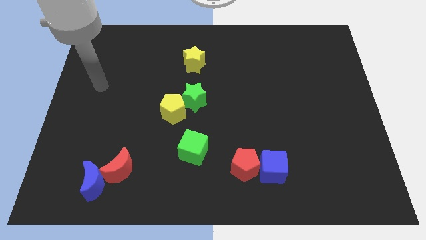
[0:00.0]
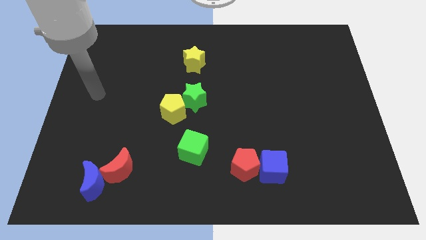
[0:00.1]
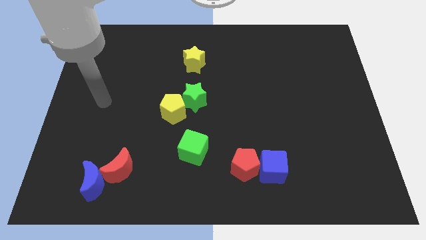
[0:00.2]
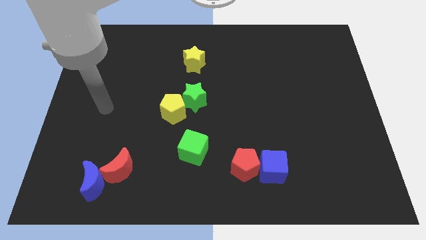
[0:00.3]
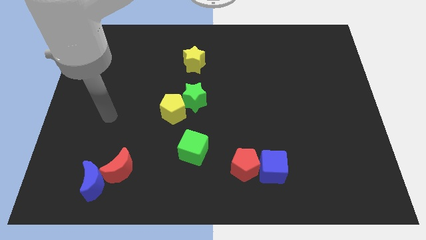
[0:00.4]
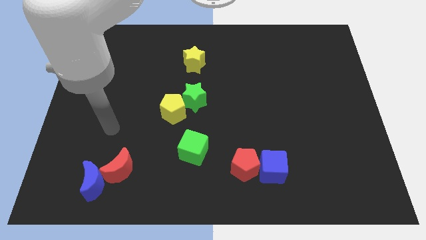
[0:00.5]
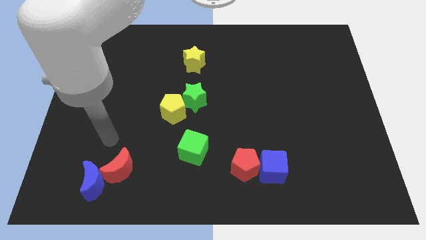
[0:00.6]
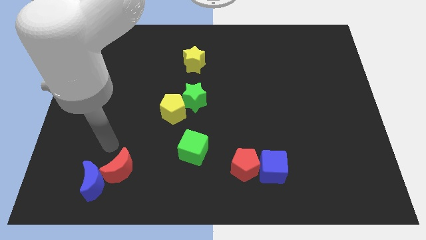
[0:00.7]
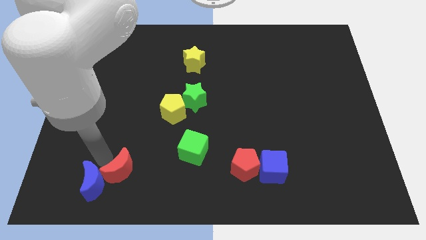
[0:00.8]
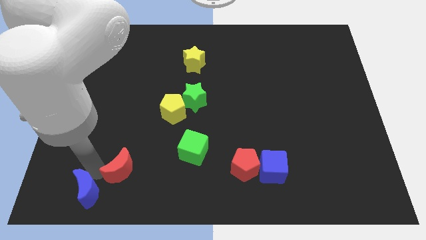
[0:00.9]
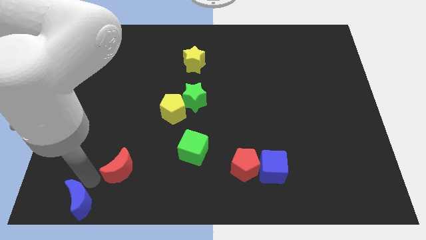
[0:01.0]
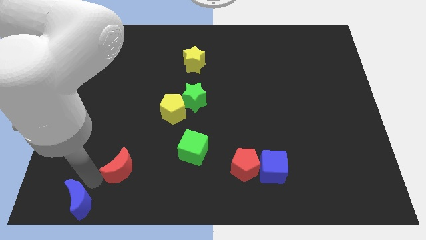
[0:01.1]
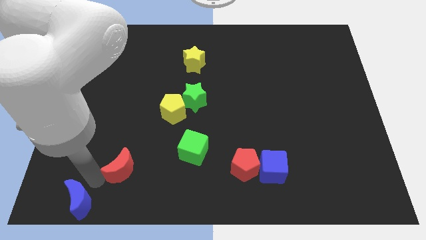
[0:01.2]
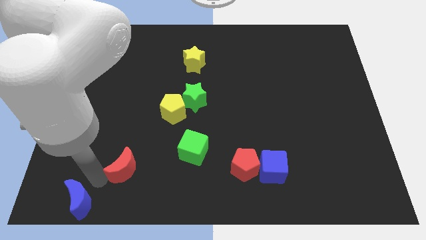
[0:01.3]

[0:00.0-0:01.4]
move the red moon away from the blue moon

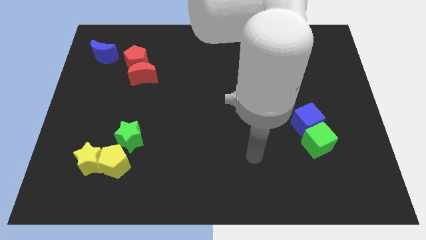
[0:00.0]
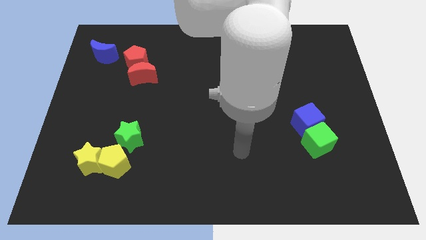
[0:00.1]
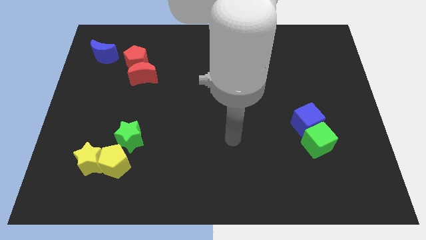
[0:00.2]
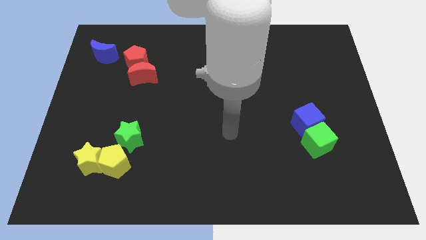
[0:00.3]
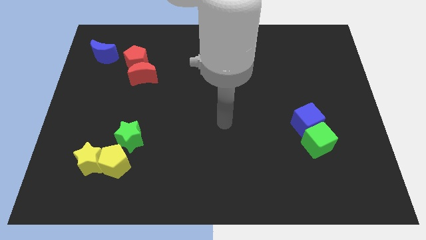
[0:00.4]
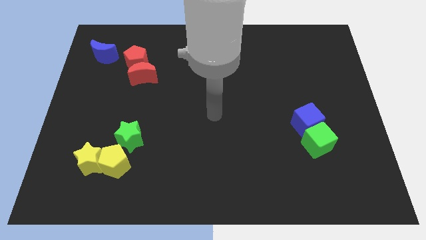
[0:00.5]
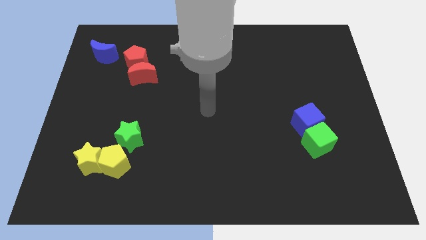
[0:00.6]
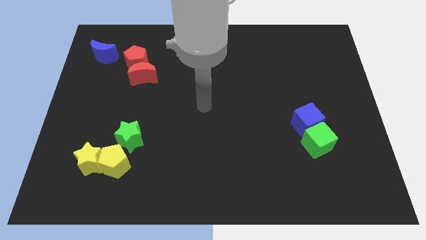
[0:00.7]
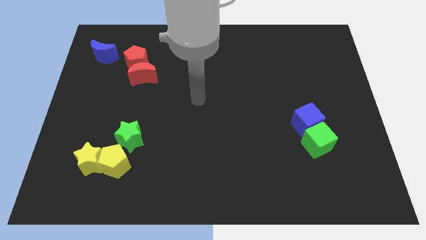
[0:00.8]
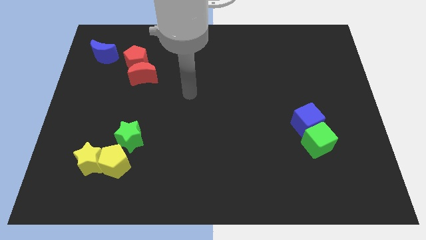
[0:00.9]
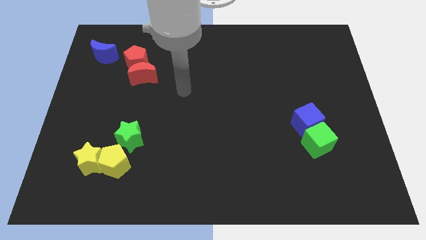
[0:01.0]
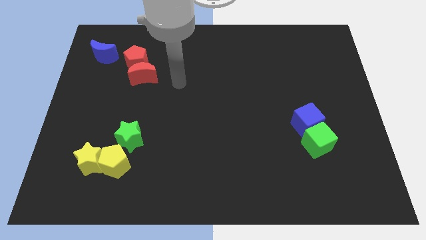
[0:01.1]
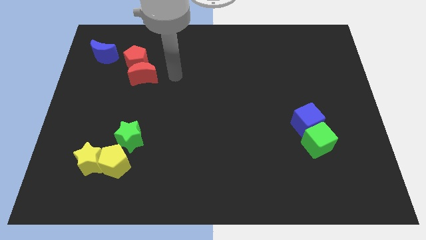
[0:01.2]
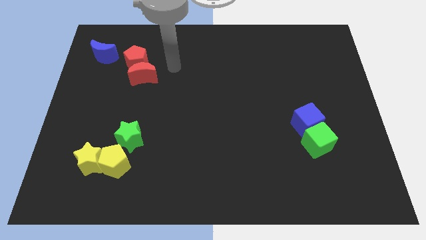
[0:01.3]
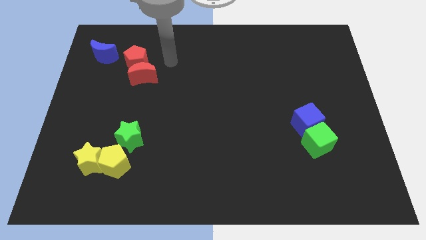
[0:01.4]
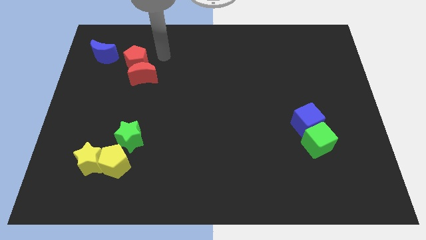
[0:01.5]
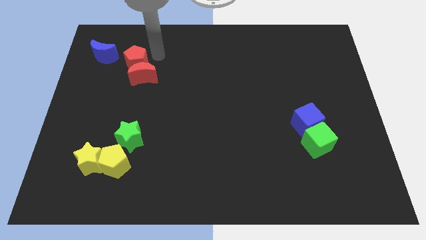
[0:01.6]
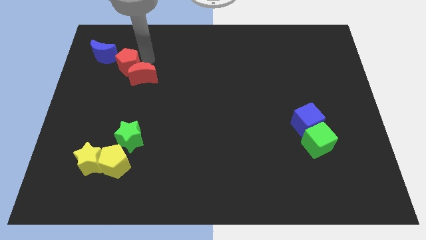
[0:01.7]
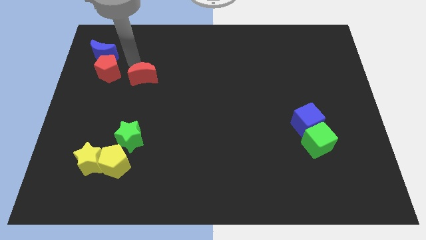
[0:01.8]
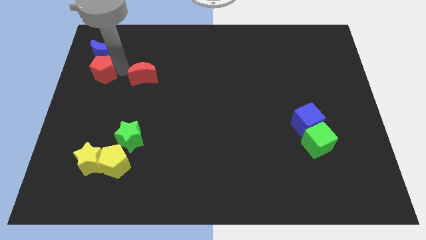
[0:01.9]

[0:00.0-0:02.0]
pull the red moon apart from the red pentagon

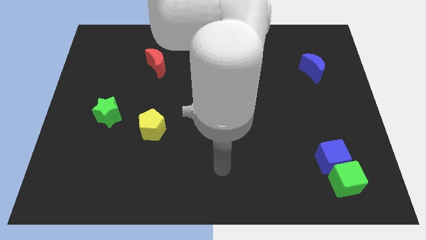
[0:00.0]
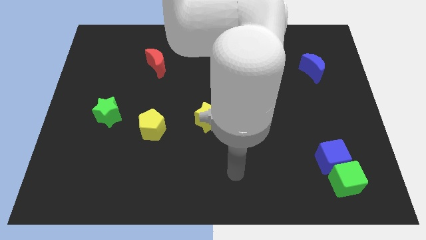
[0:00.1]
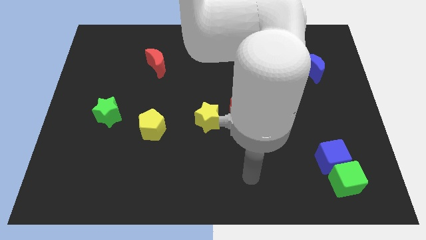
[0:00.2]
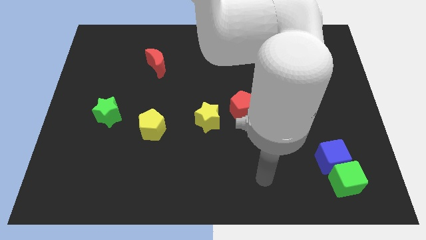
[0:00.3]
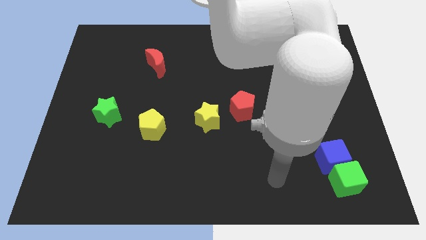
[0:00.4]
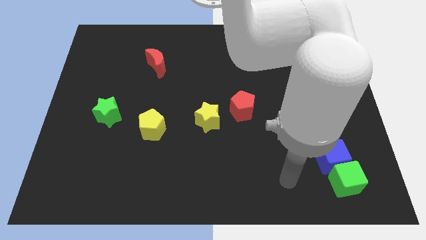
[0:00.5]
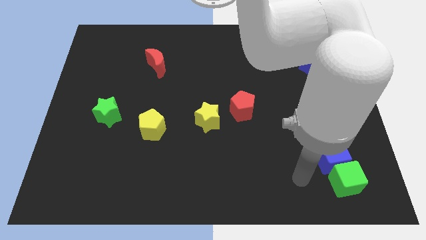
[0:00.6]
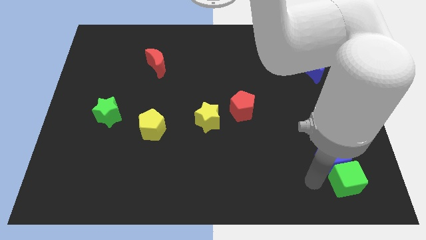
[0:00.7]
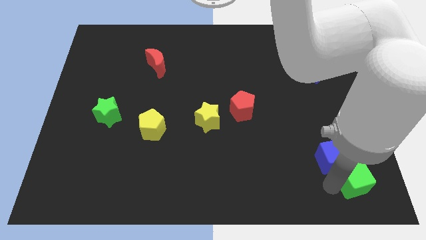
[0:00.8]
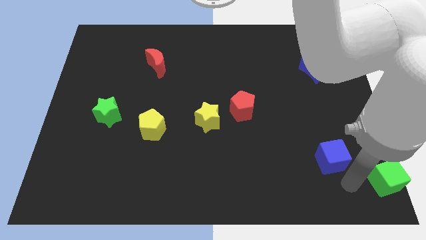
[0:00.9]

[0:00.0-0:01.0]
separate the blue cube from the green cube

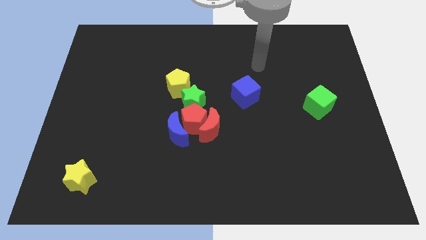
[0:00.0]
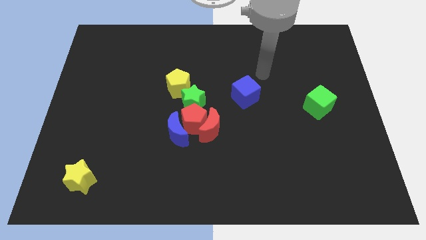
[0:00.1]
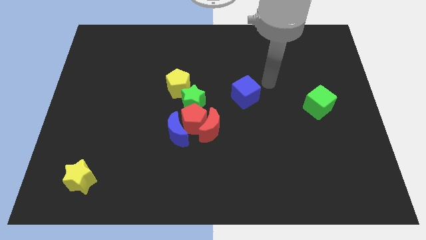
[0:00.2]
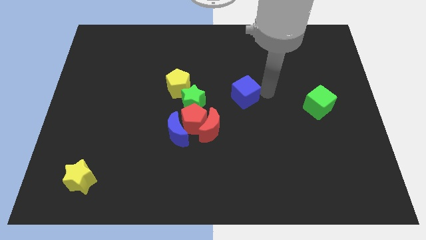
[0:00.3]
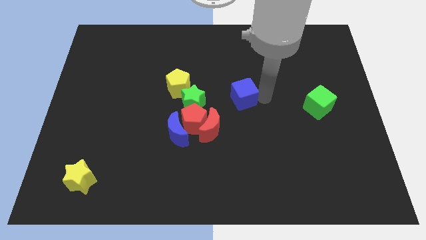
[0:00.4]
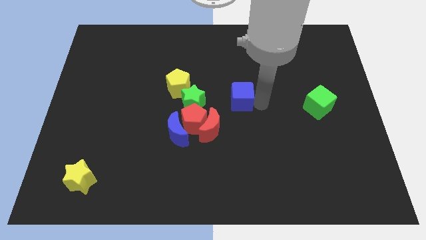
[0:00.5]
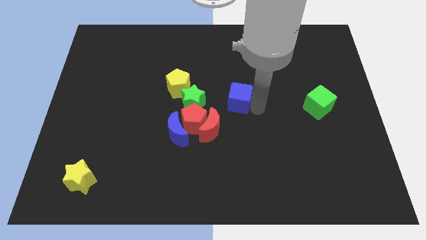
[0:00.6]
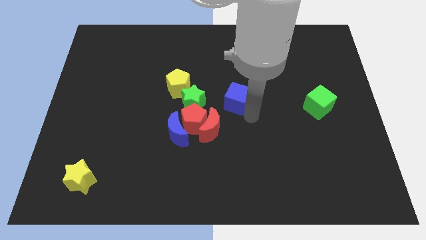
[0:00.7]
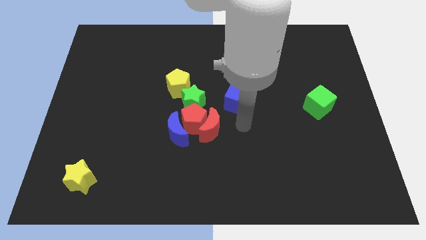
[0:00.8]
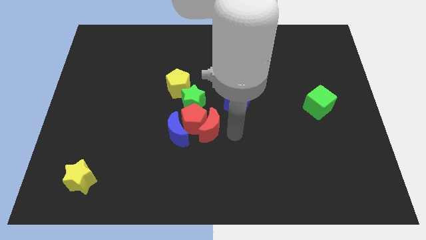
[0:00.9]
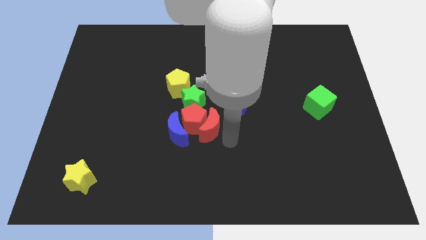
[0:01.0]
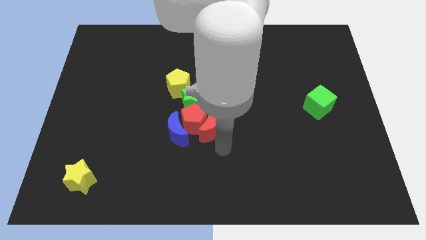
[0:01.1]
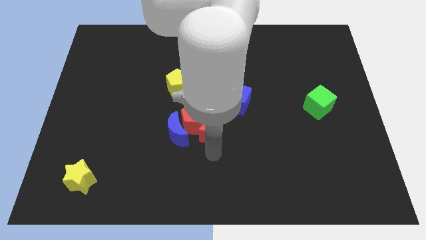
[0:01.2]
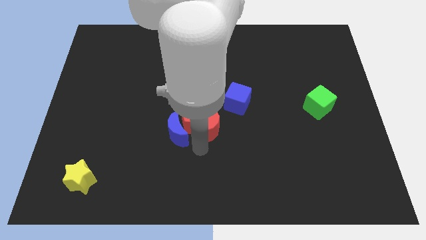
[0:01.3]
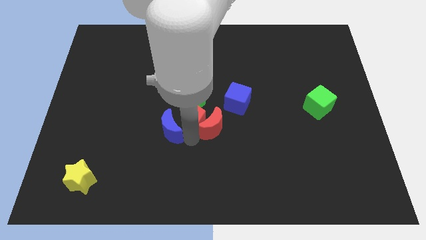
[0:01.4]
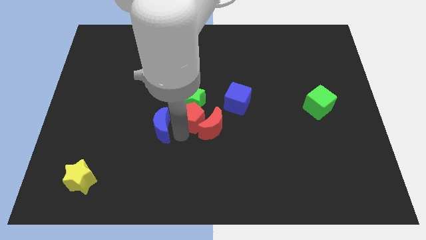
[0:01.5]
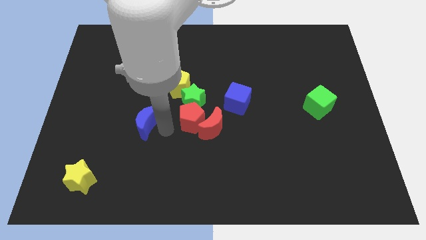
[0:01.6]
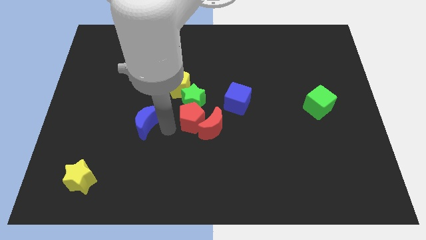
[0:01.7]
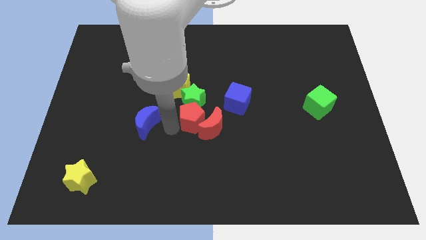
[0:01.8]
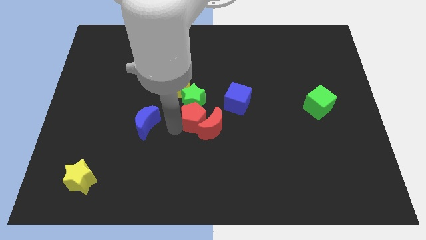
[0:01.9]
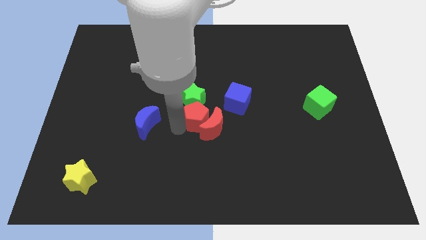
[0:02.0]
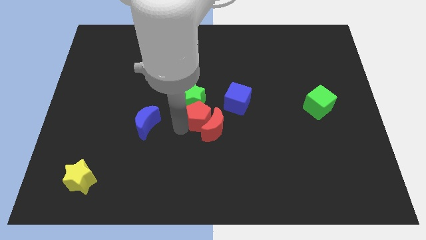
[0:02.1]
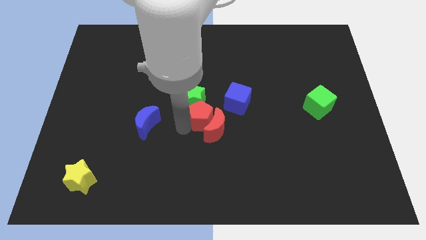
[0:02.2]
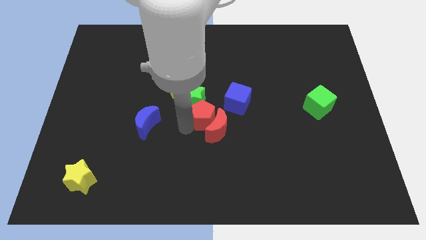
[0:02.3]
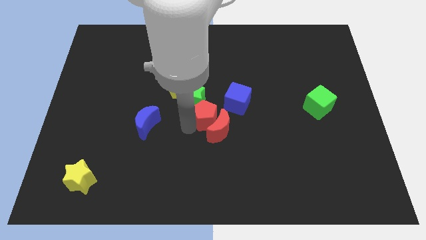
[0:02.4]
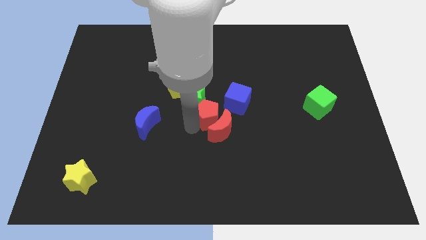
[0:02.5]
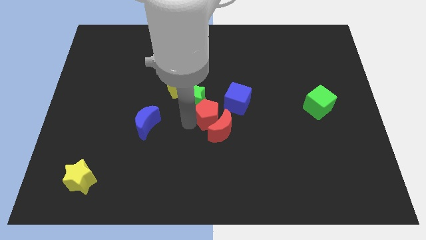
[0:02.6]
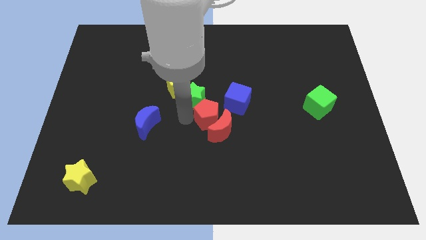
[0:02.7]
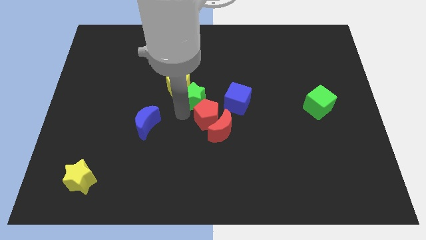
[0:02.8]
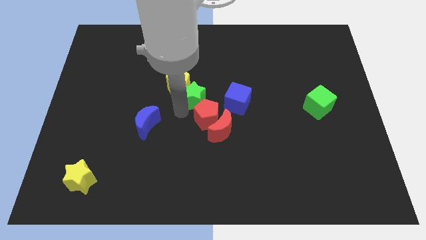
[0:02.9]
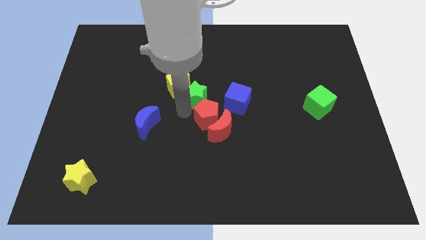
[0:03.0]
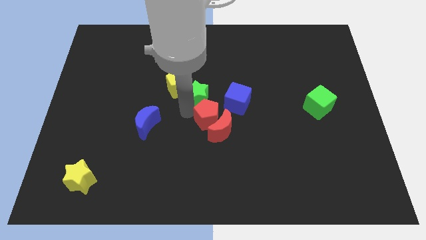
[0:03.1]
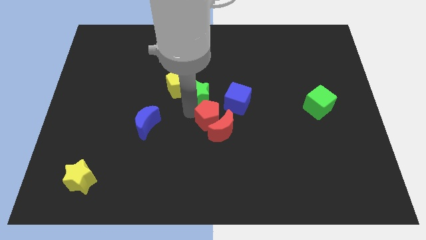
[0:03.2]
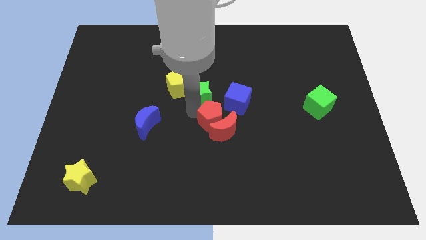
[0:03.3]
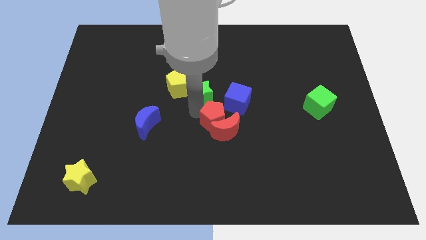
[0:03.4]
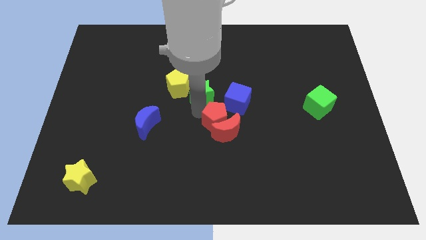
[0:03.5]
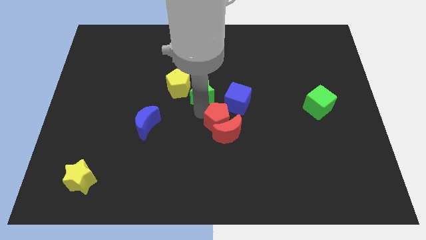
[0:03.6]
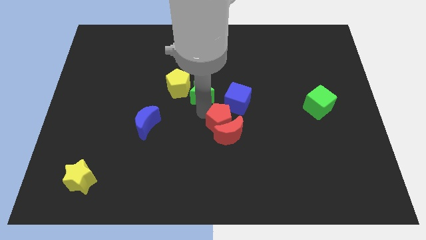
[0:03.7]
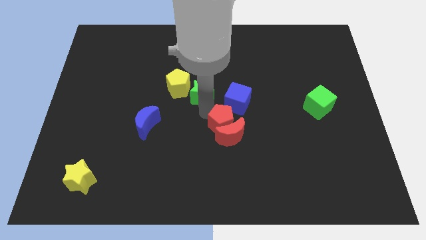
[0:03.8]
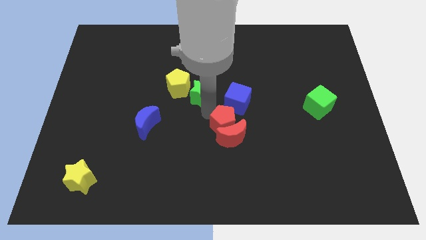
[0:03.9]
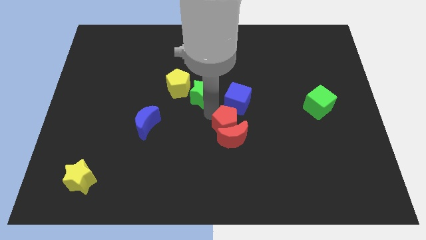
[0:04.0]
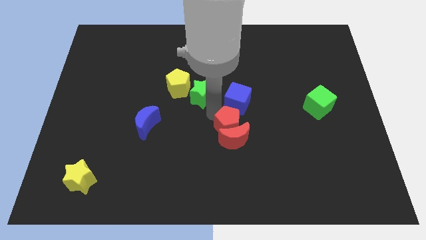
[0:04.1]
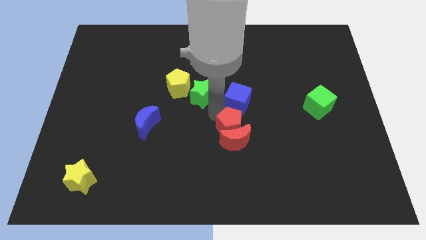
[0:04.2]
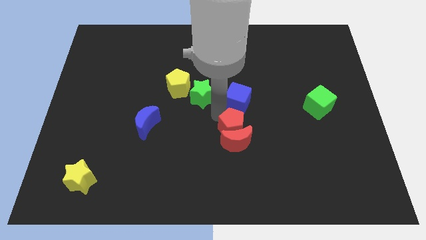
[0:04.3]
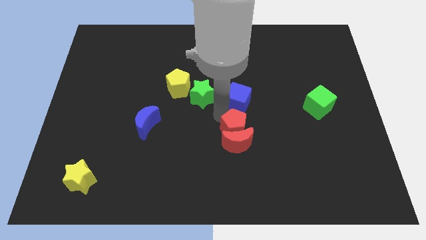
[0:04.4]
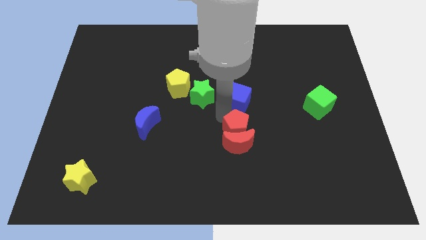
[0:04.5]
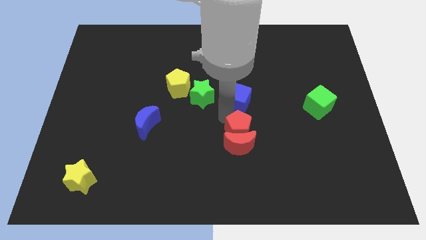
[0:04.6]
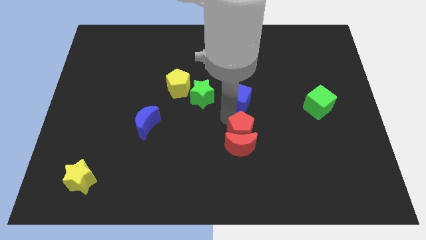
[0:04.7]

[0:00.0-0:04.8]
move the red pentagon away from the clump
